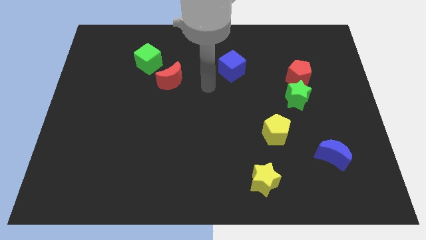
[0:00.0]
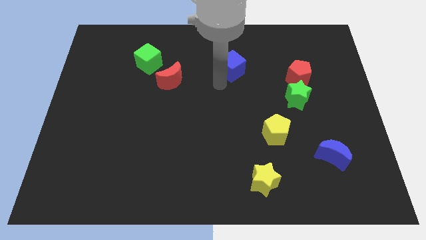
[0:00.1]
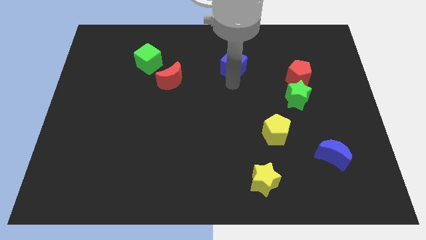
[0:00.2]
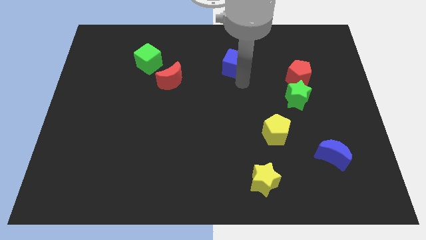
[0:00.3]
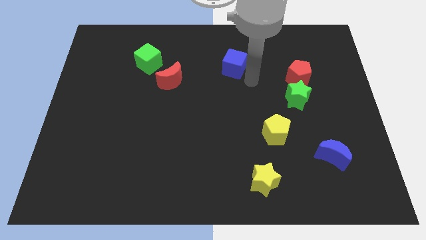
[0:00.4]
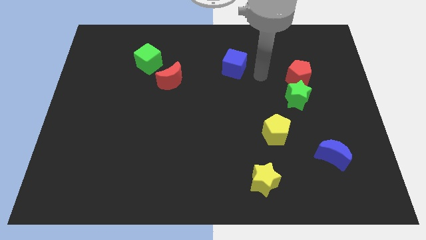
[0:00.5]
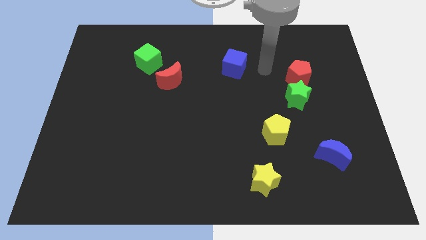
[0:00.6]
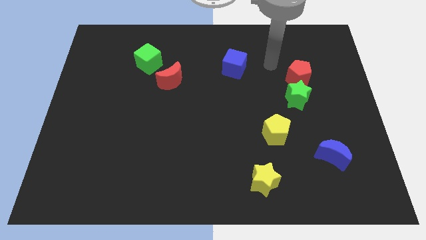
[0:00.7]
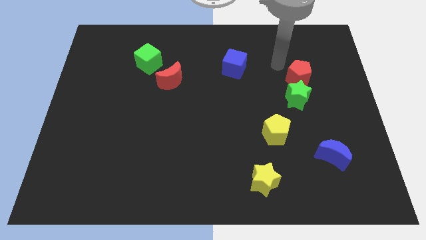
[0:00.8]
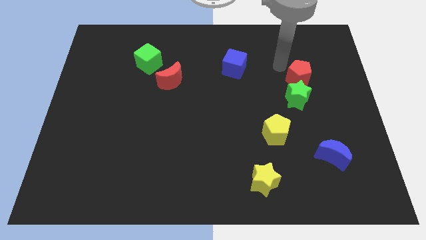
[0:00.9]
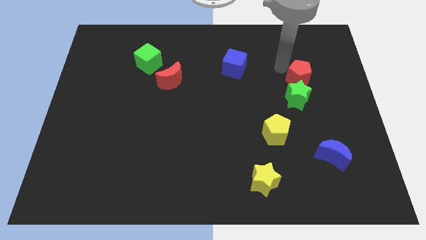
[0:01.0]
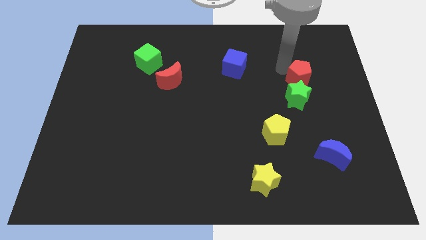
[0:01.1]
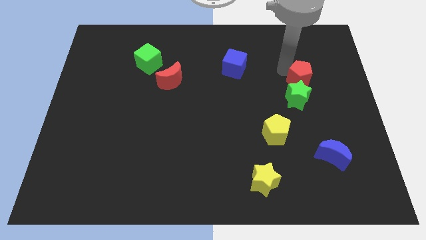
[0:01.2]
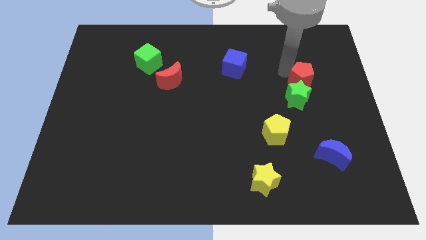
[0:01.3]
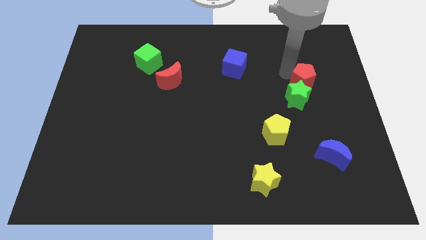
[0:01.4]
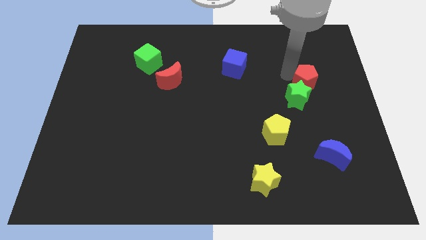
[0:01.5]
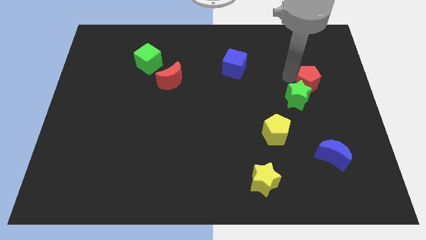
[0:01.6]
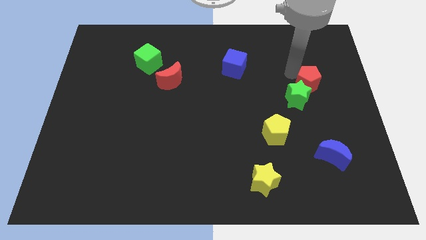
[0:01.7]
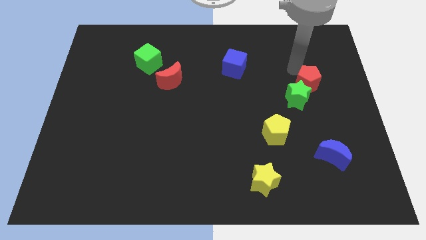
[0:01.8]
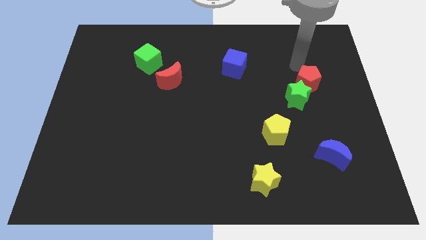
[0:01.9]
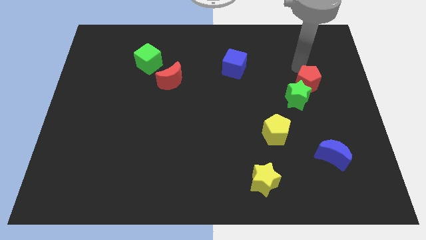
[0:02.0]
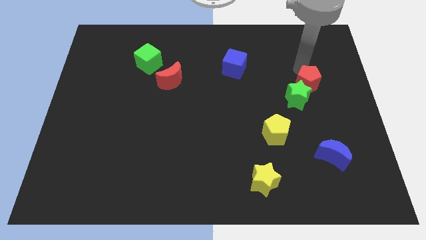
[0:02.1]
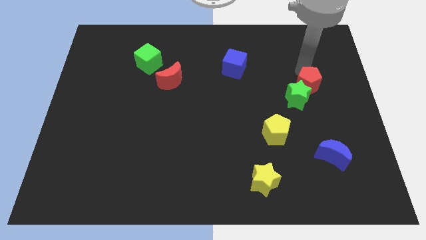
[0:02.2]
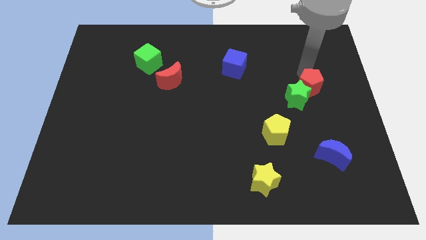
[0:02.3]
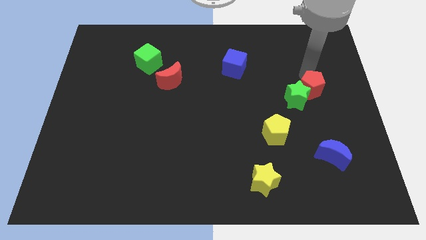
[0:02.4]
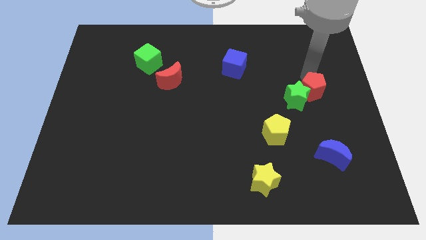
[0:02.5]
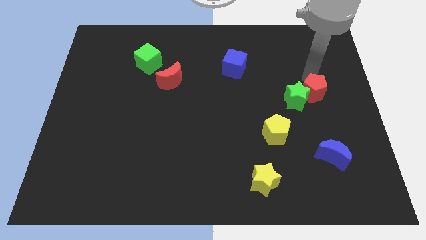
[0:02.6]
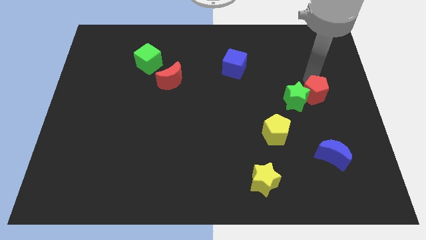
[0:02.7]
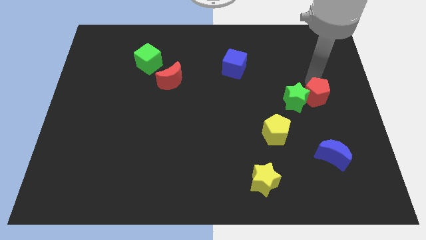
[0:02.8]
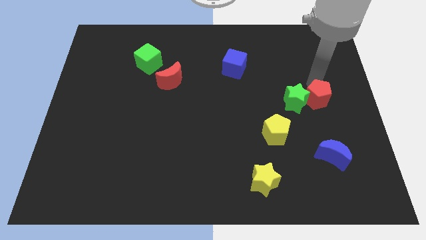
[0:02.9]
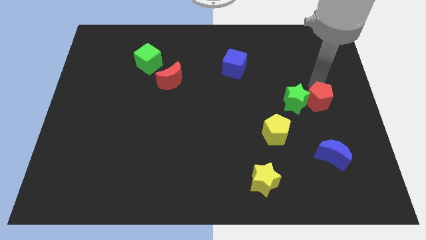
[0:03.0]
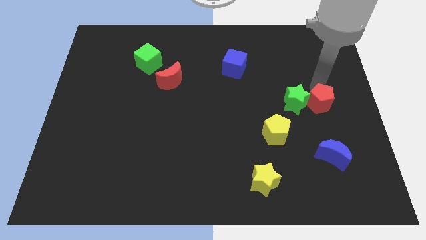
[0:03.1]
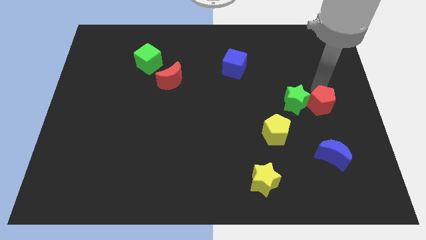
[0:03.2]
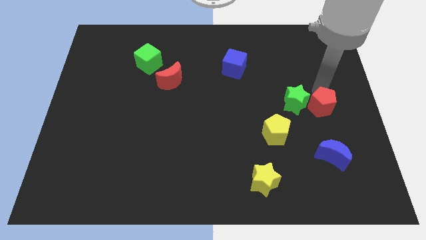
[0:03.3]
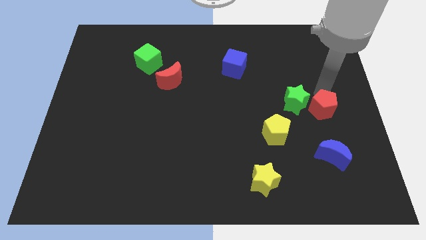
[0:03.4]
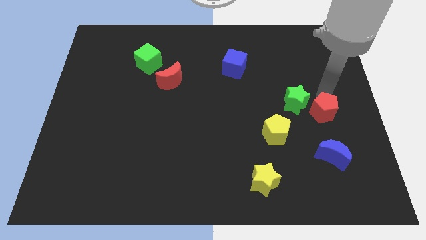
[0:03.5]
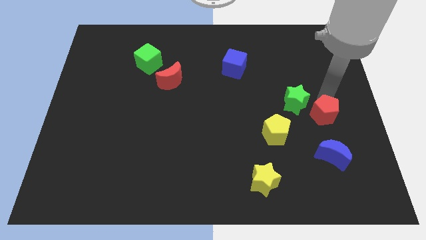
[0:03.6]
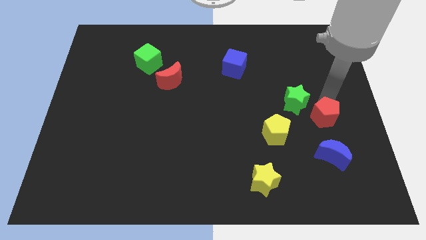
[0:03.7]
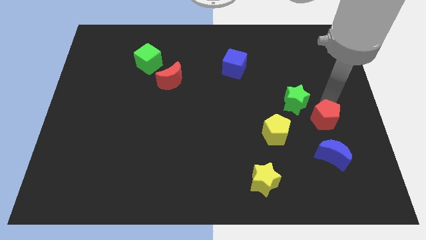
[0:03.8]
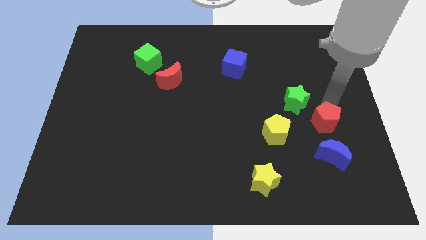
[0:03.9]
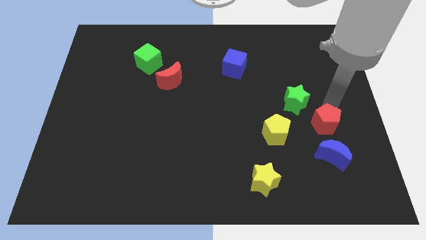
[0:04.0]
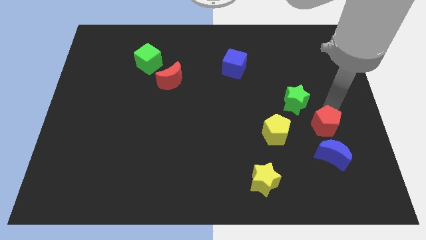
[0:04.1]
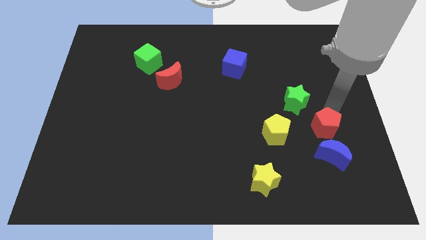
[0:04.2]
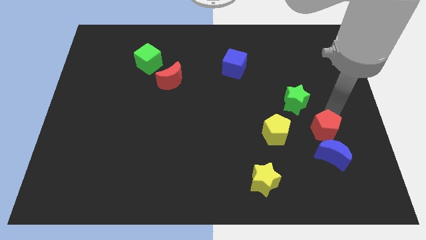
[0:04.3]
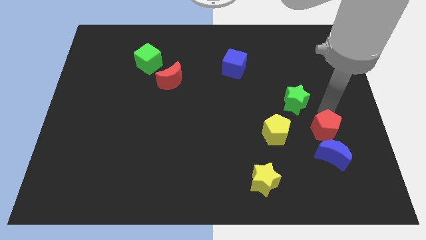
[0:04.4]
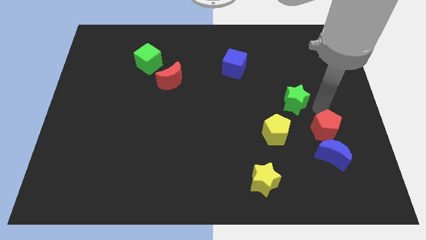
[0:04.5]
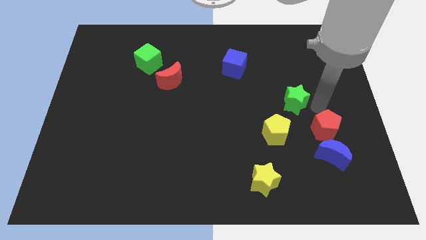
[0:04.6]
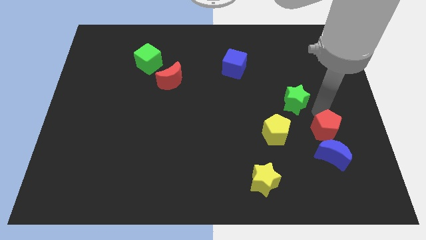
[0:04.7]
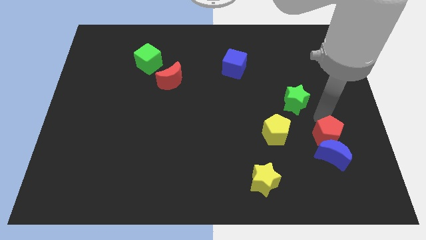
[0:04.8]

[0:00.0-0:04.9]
move the red pentagon close to the blue moon

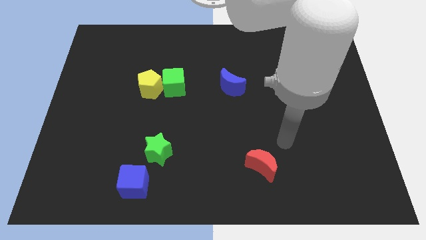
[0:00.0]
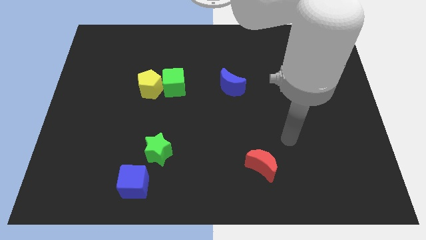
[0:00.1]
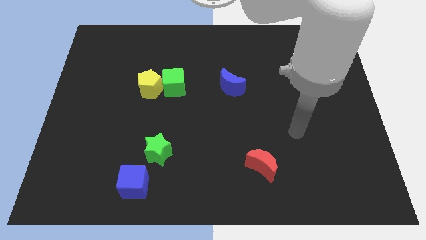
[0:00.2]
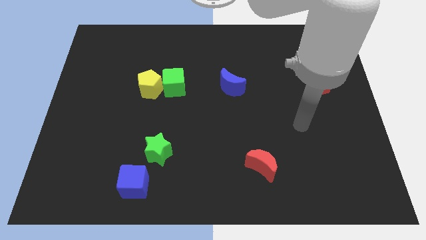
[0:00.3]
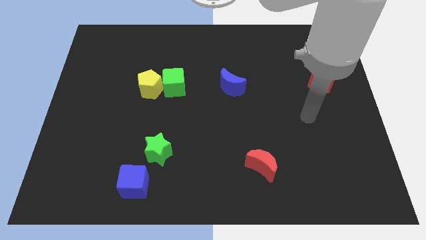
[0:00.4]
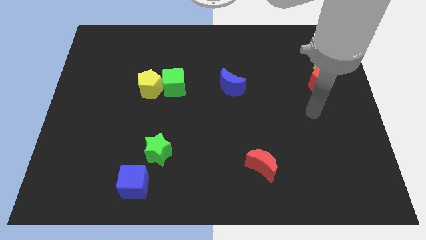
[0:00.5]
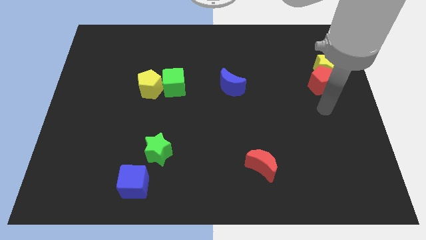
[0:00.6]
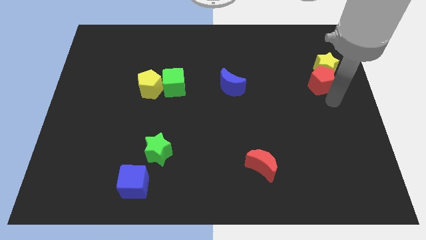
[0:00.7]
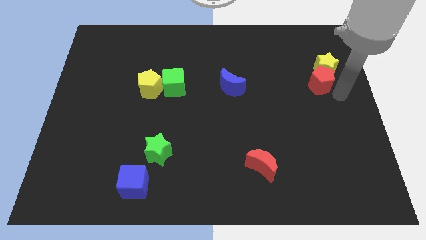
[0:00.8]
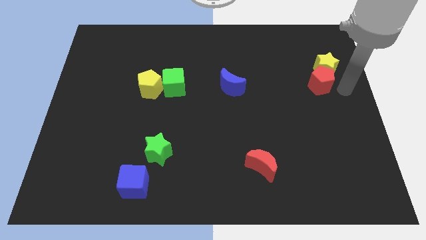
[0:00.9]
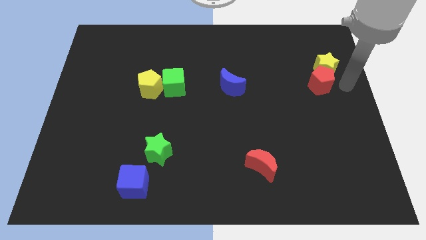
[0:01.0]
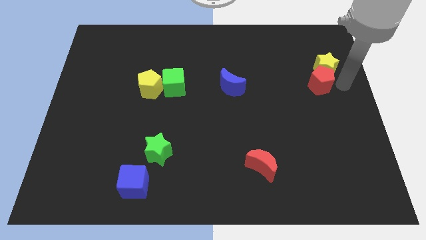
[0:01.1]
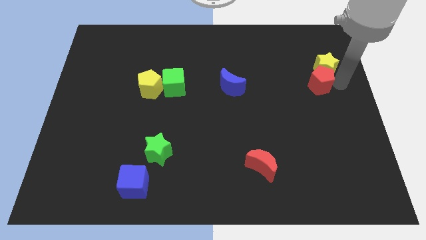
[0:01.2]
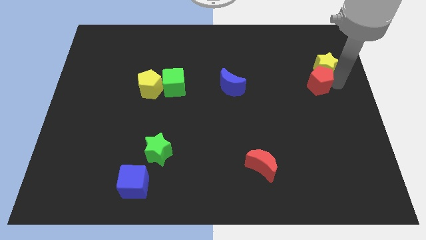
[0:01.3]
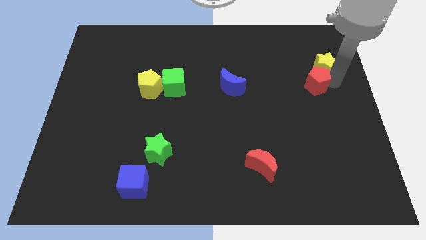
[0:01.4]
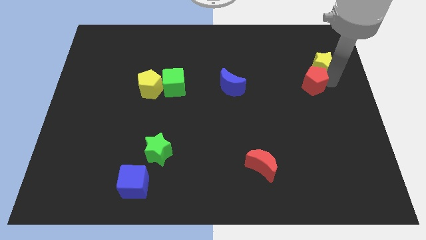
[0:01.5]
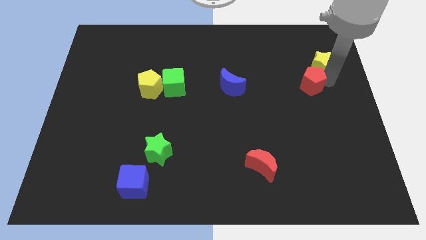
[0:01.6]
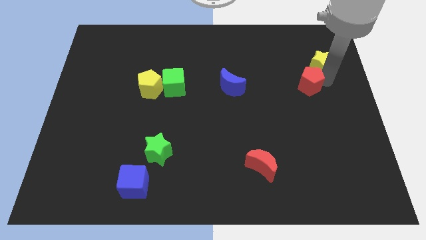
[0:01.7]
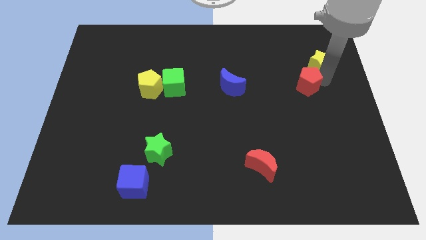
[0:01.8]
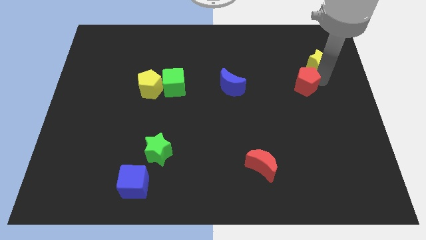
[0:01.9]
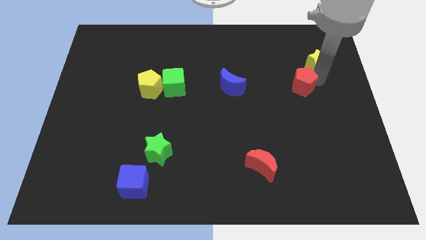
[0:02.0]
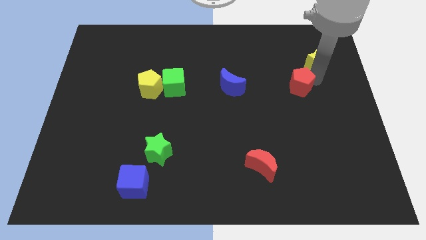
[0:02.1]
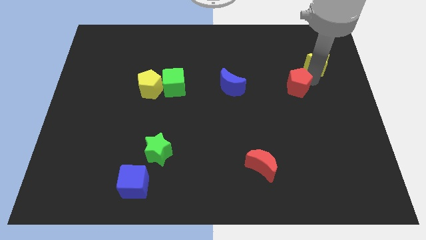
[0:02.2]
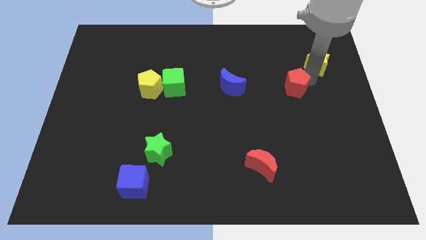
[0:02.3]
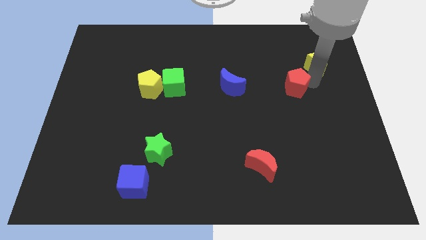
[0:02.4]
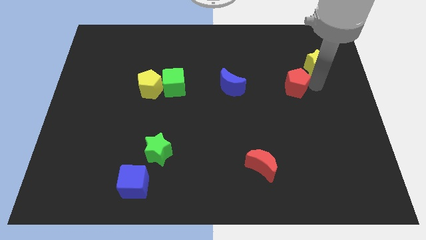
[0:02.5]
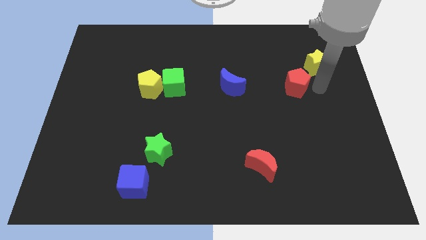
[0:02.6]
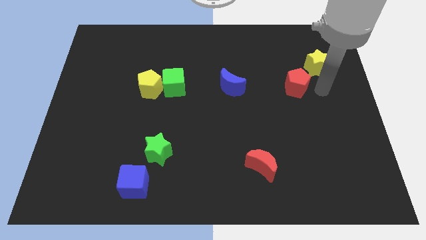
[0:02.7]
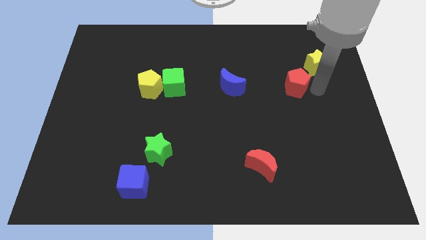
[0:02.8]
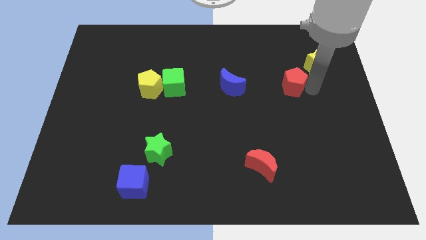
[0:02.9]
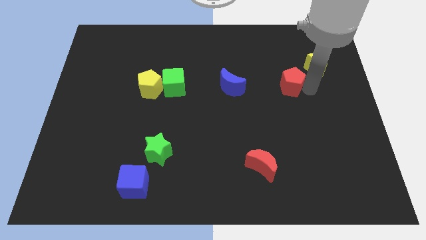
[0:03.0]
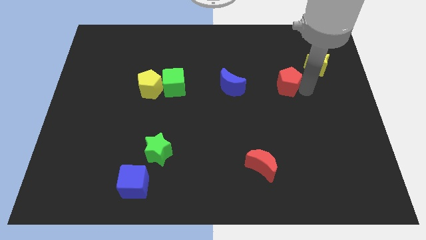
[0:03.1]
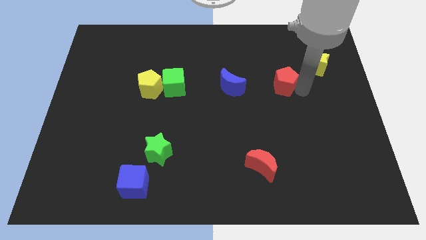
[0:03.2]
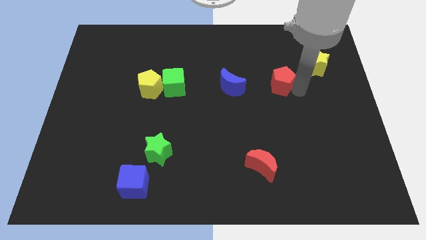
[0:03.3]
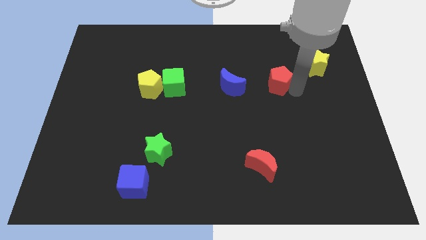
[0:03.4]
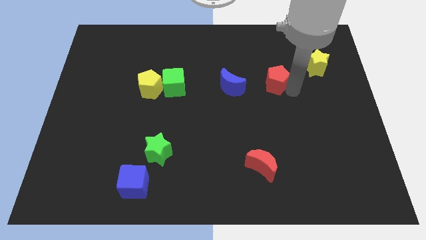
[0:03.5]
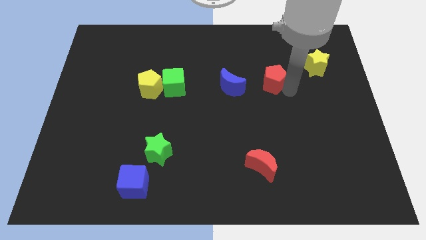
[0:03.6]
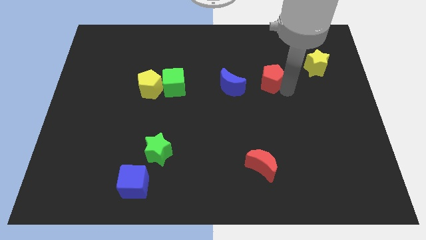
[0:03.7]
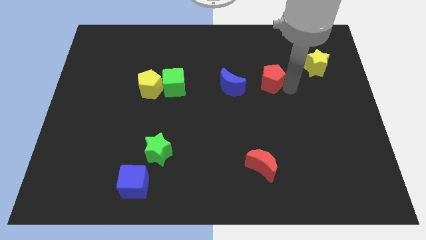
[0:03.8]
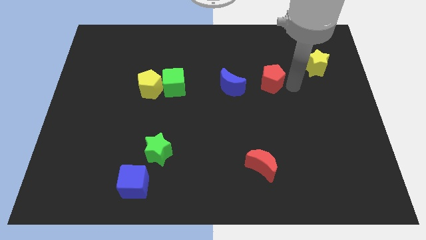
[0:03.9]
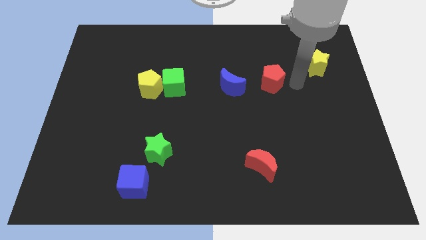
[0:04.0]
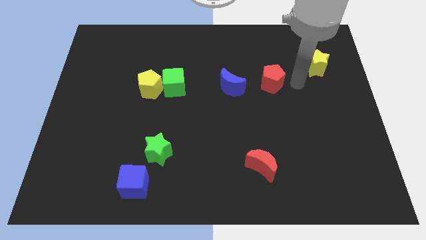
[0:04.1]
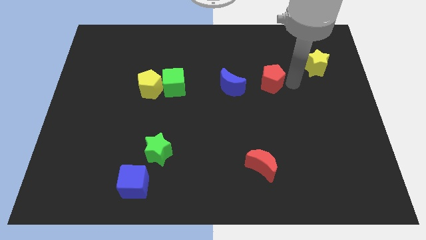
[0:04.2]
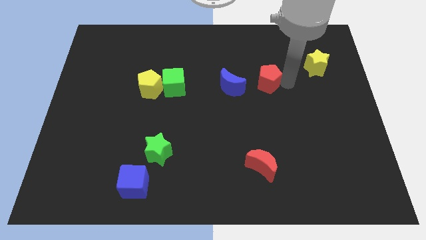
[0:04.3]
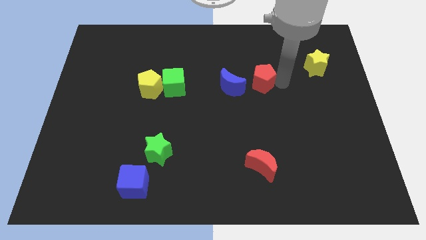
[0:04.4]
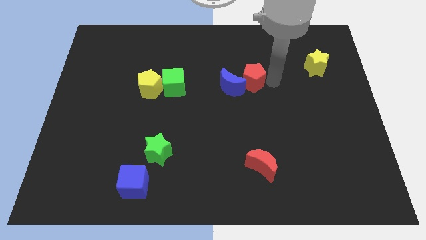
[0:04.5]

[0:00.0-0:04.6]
move the red pentagon next to the blue moon
